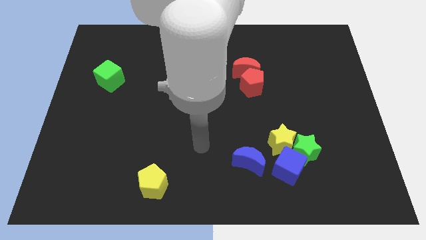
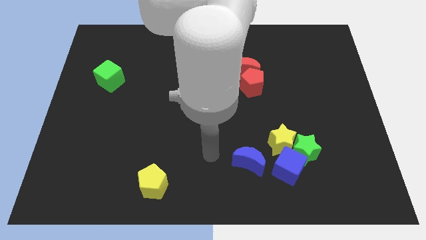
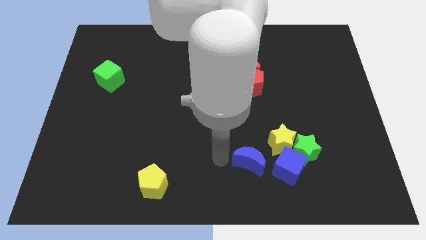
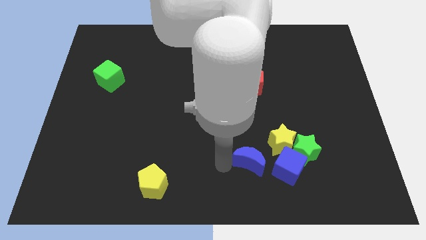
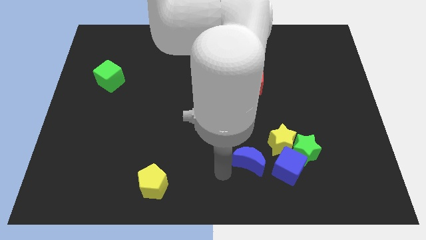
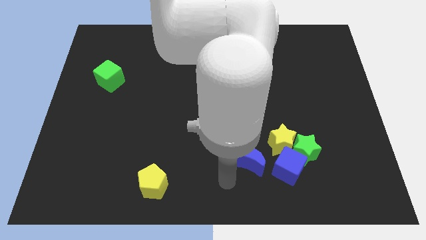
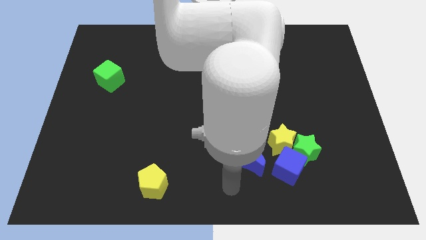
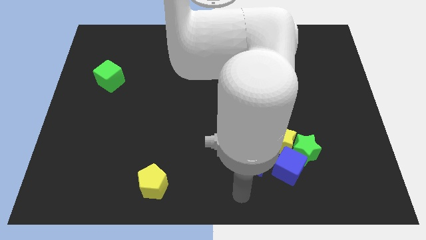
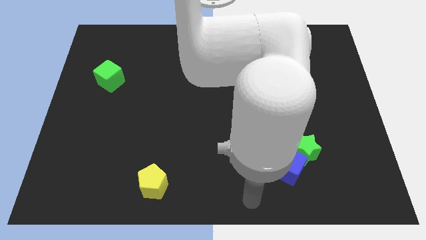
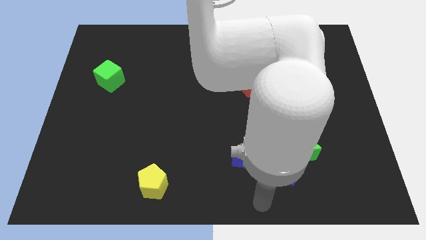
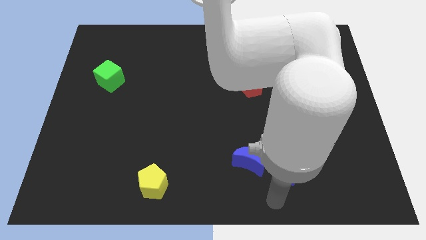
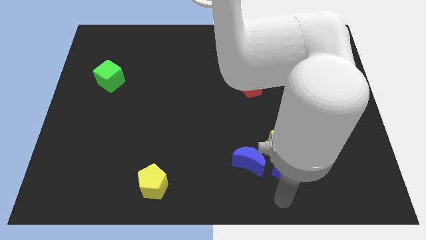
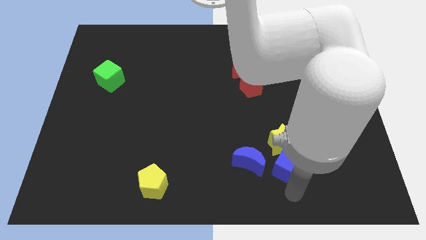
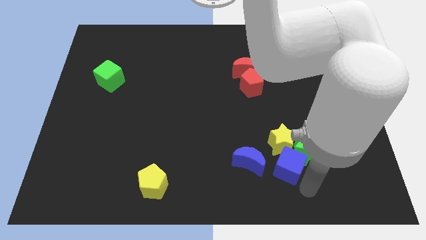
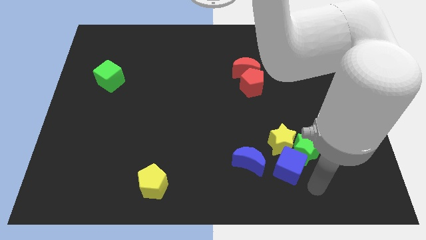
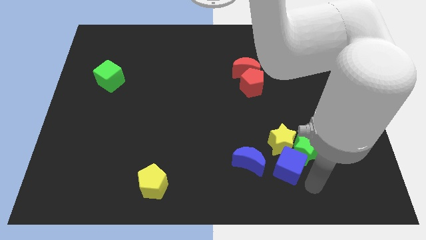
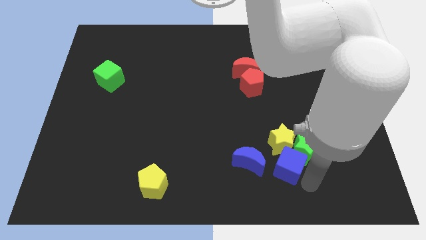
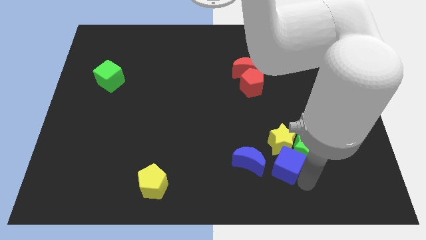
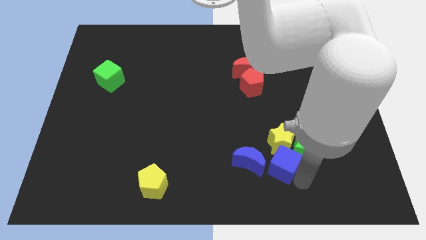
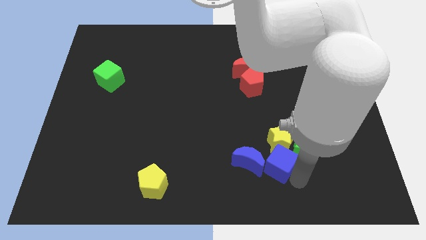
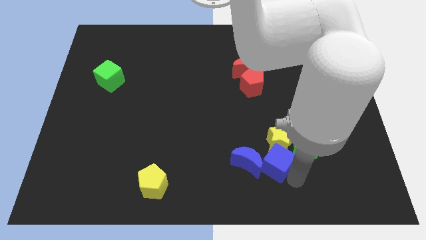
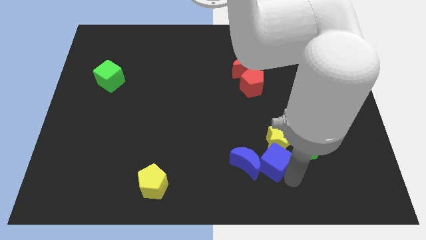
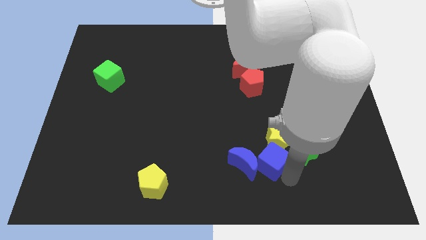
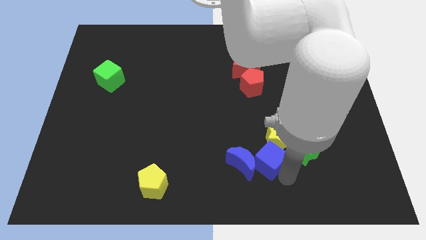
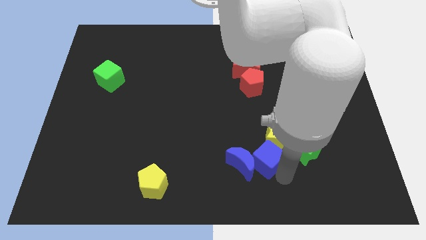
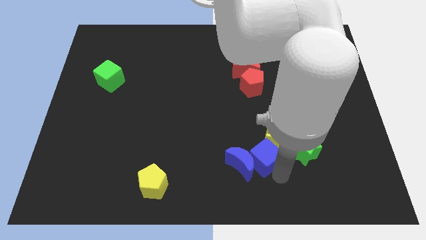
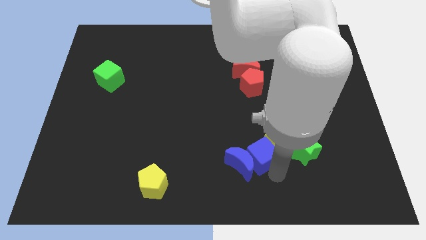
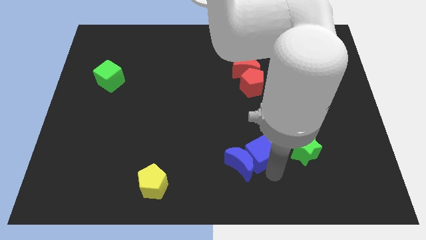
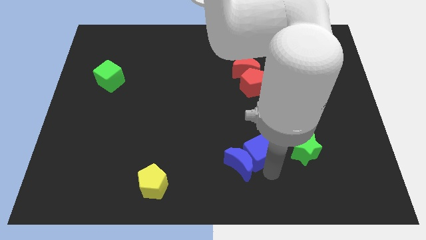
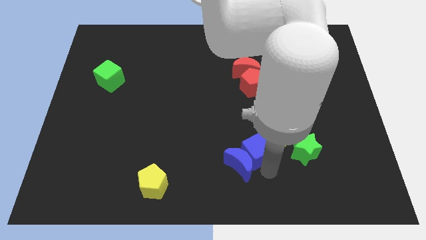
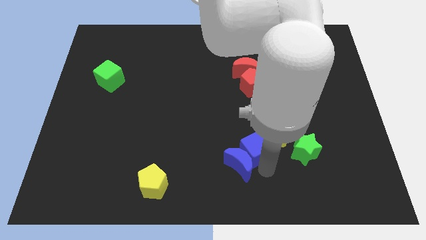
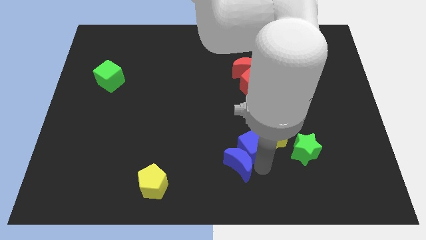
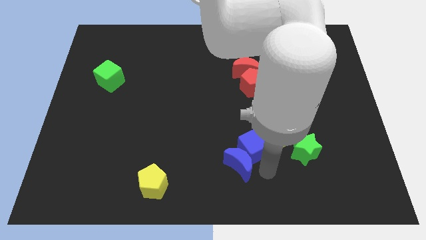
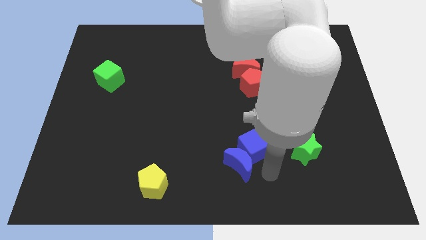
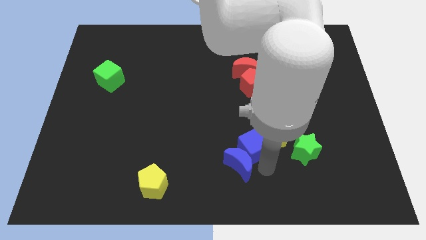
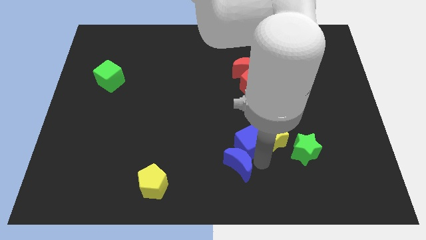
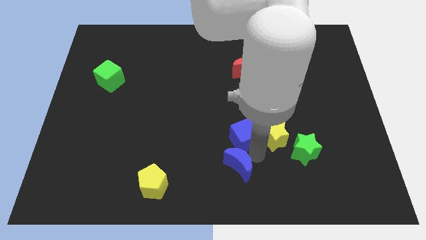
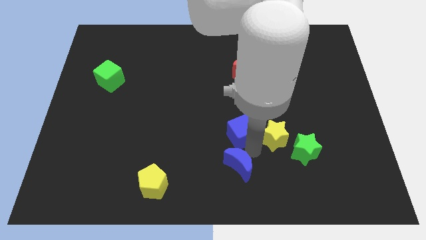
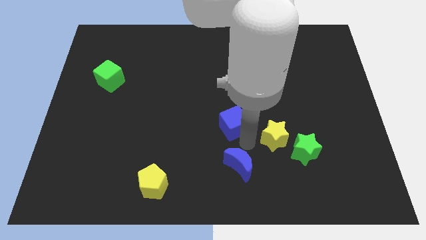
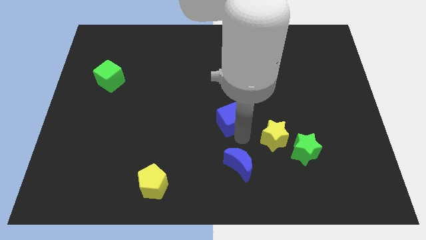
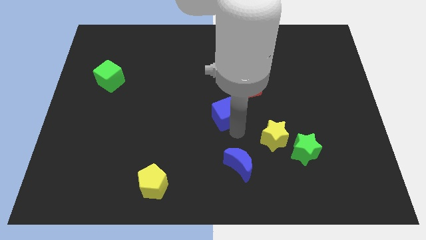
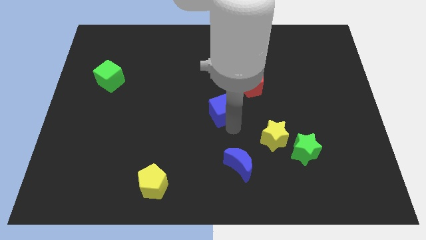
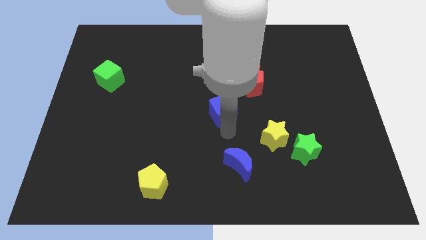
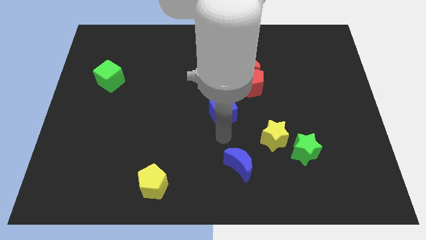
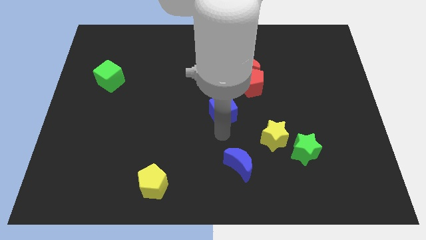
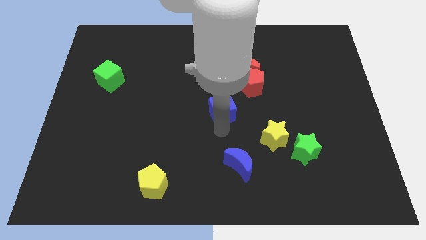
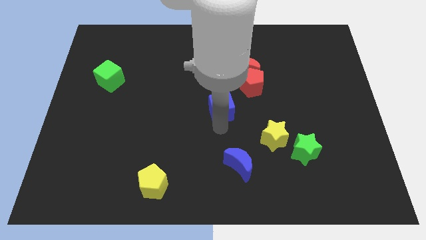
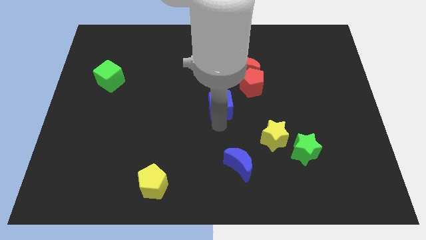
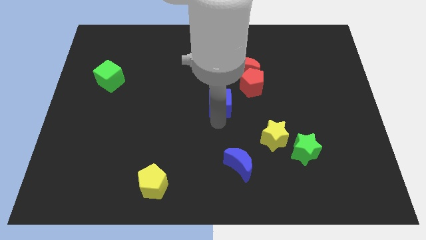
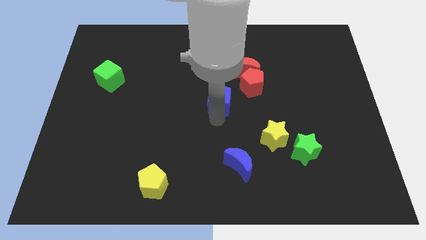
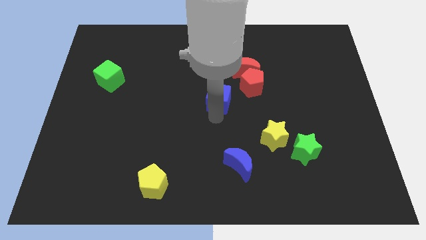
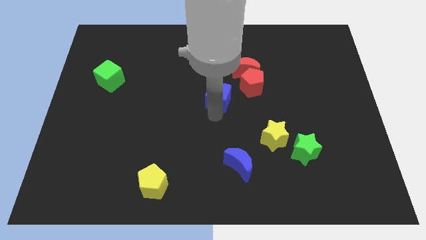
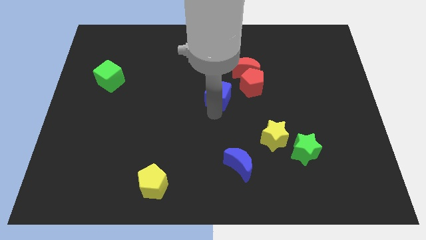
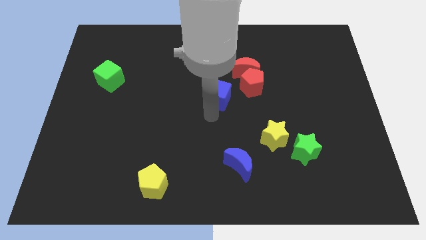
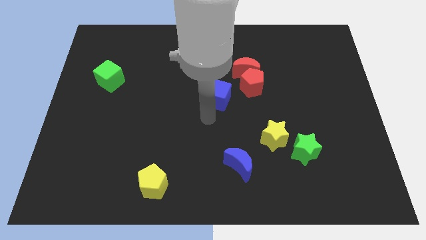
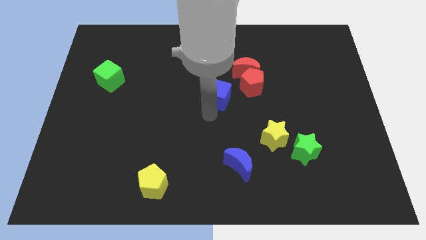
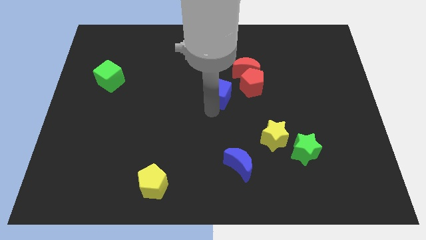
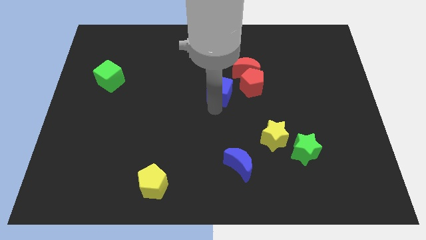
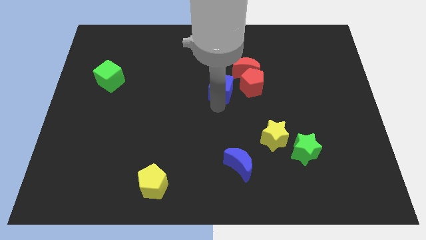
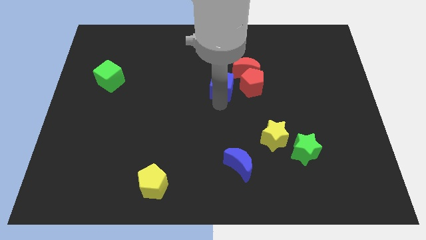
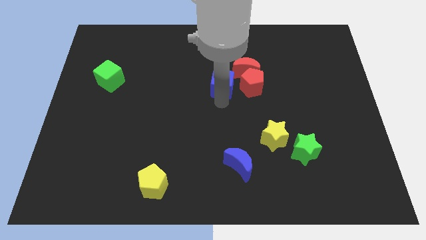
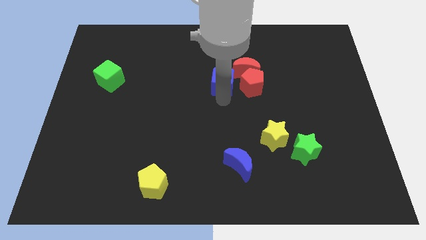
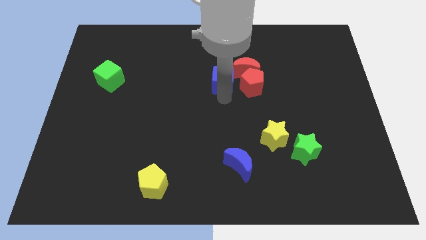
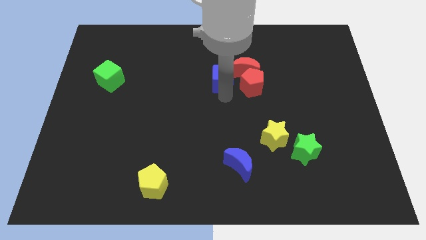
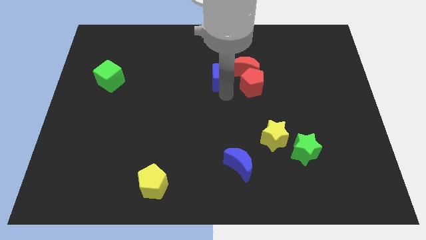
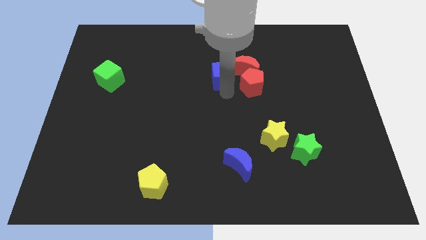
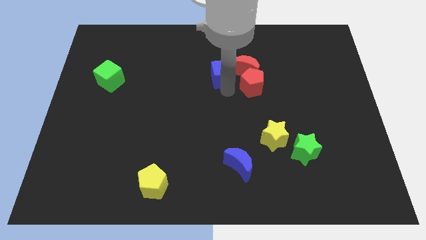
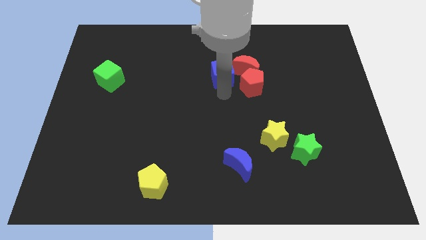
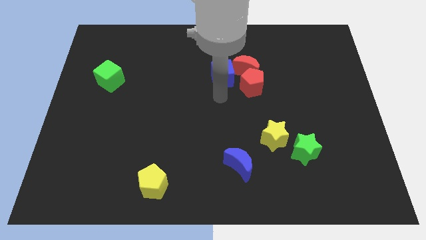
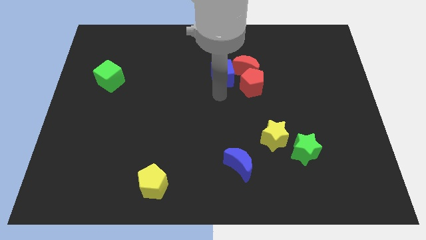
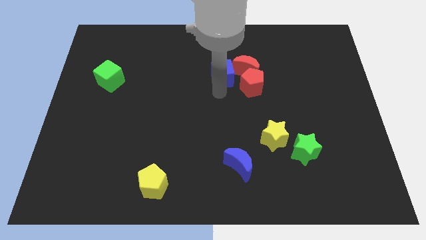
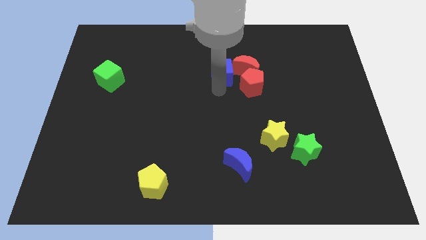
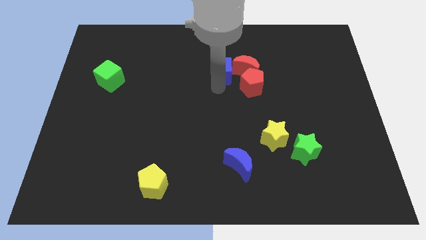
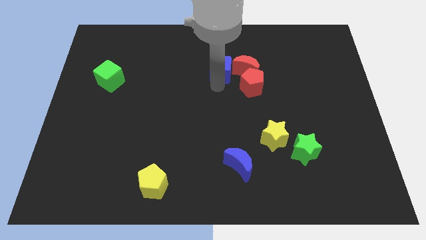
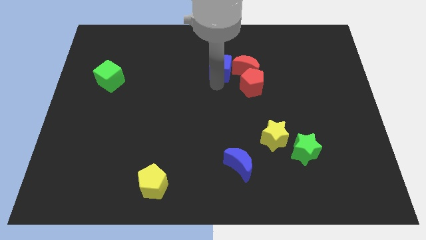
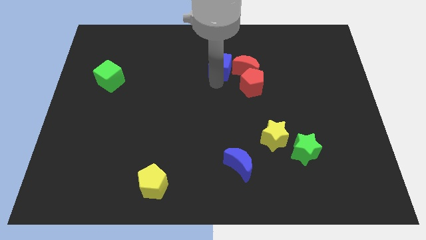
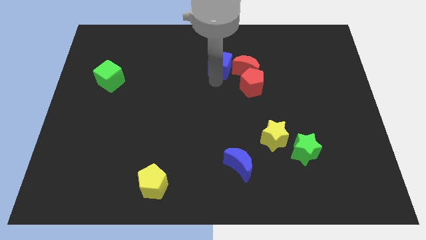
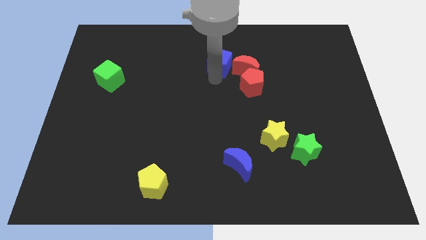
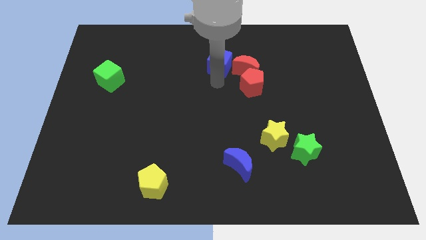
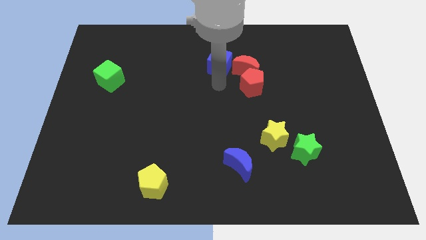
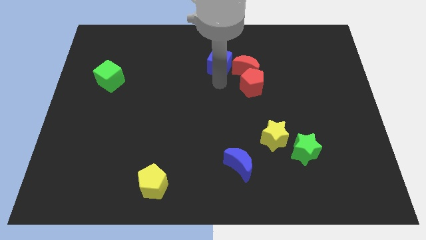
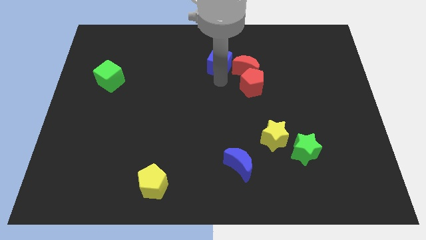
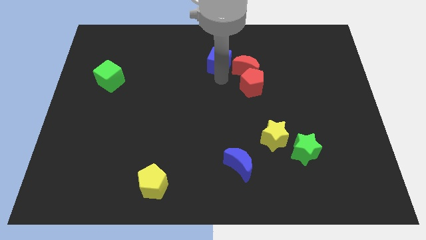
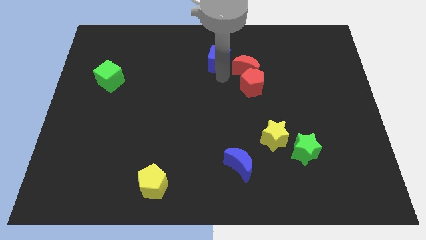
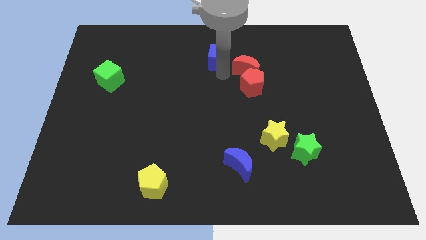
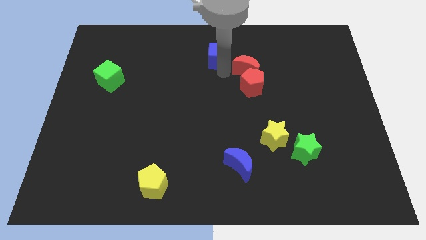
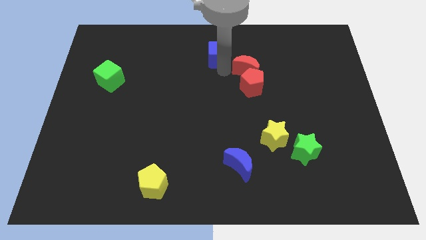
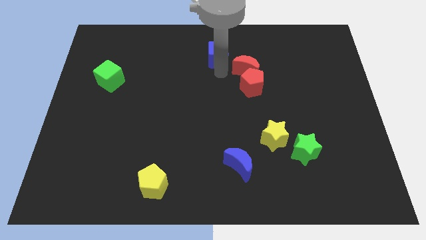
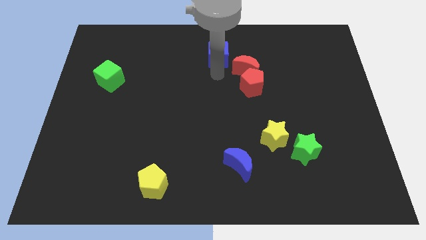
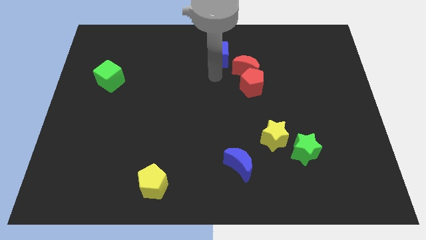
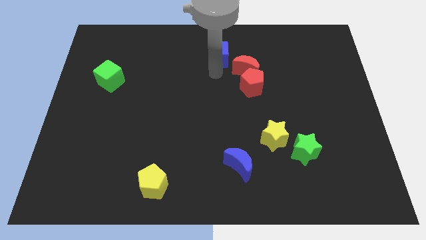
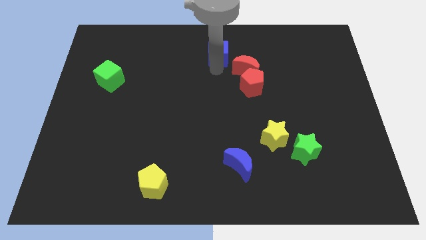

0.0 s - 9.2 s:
move the blue cube to the top side
